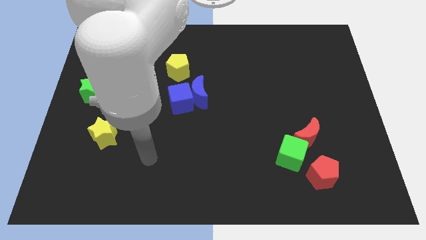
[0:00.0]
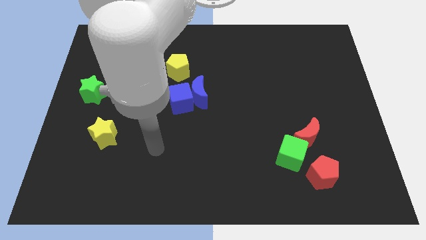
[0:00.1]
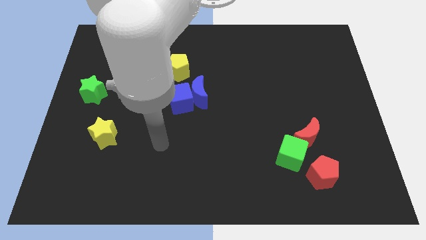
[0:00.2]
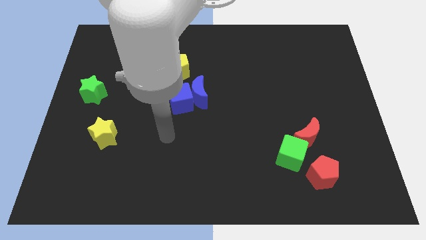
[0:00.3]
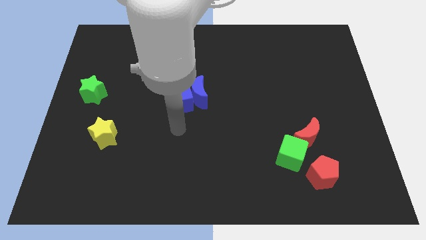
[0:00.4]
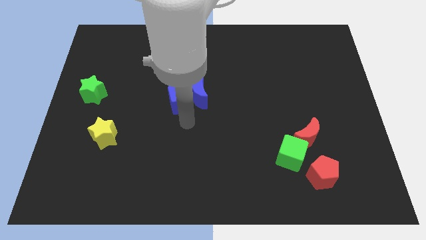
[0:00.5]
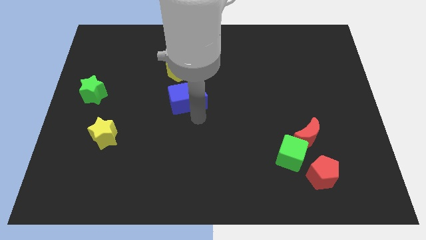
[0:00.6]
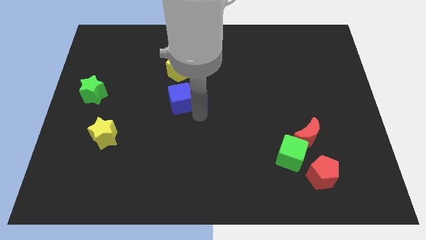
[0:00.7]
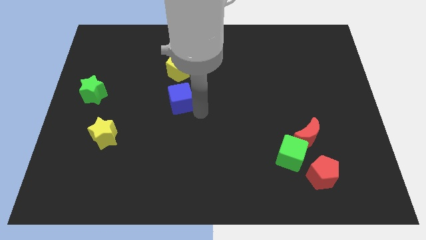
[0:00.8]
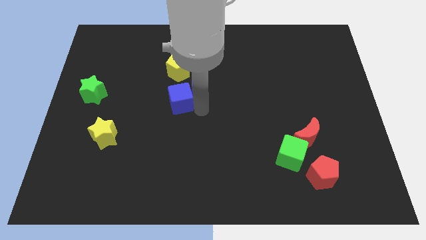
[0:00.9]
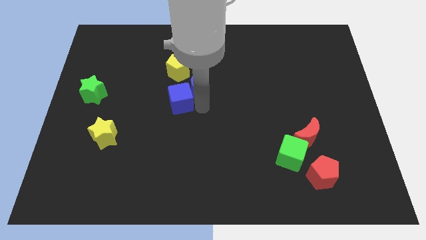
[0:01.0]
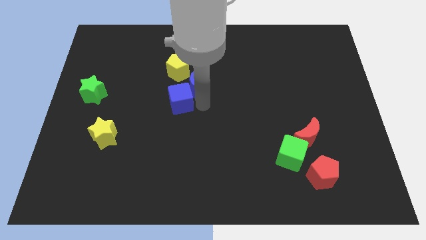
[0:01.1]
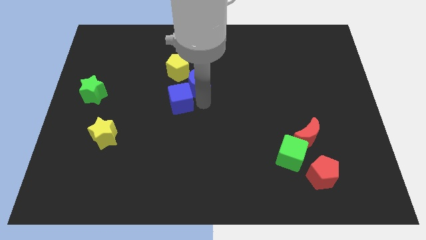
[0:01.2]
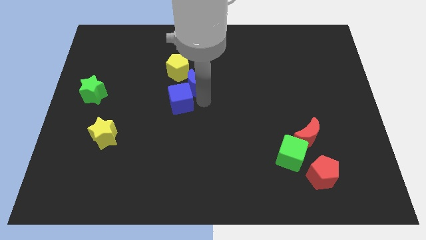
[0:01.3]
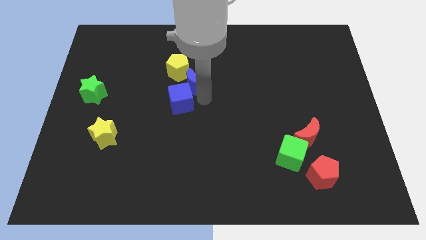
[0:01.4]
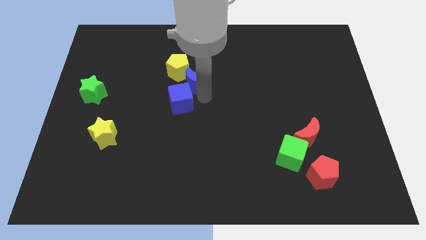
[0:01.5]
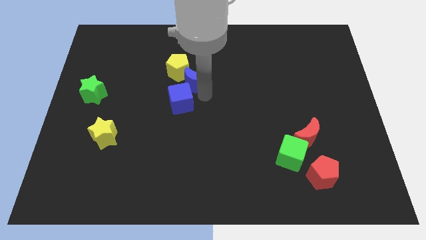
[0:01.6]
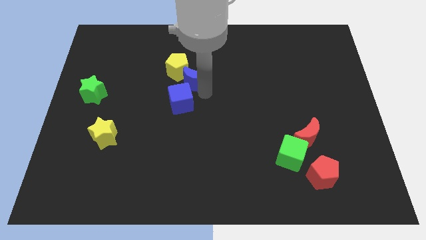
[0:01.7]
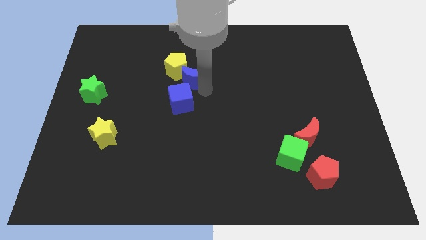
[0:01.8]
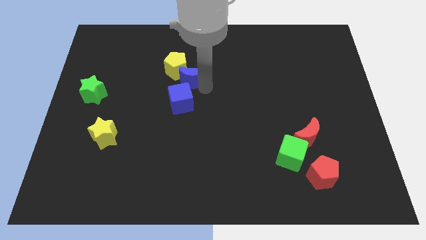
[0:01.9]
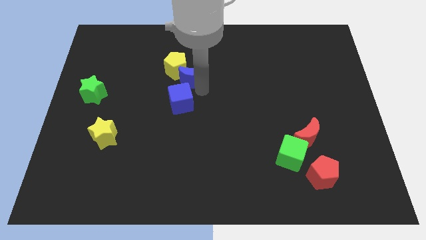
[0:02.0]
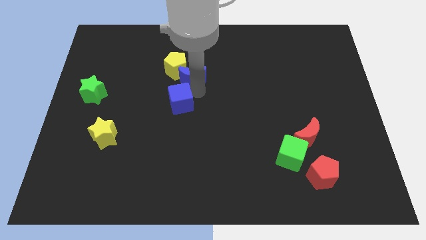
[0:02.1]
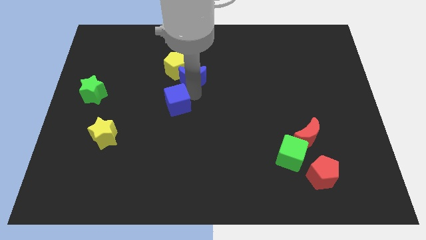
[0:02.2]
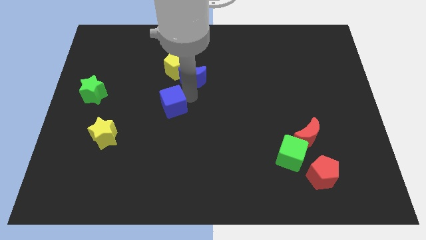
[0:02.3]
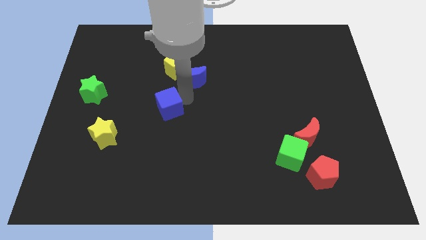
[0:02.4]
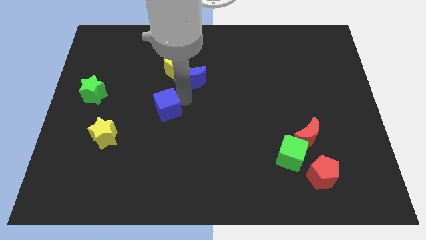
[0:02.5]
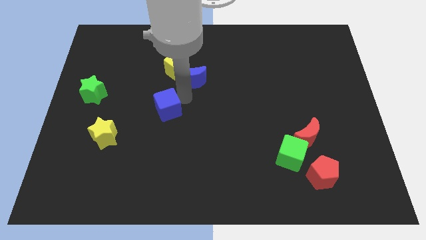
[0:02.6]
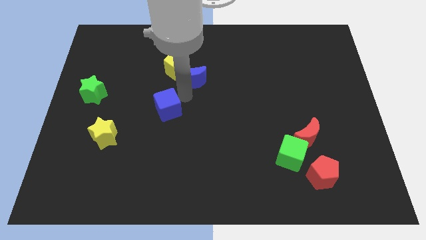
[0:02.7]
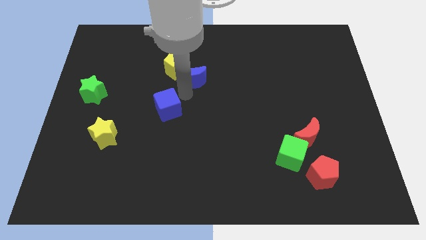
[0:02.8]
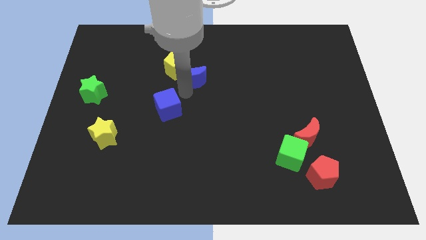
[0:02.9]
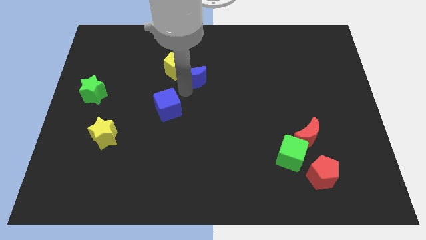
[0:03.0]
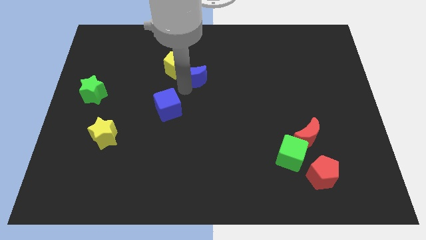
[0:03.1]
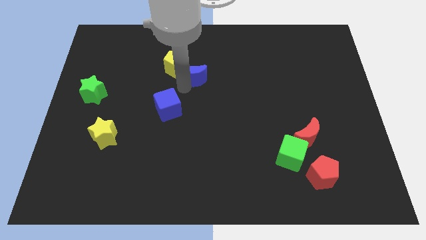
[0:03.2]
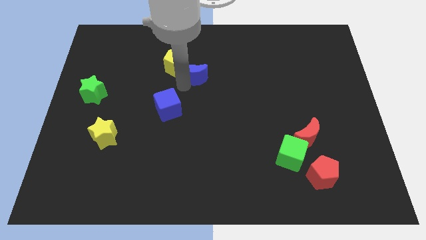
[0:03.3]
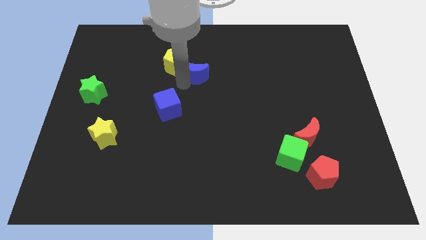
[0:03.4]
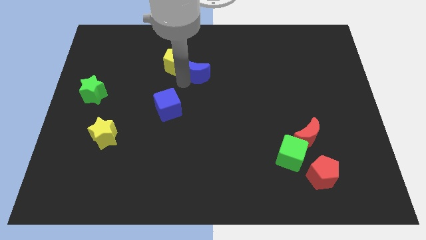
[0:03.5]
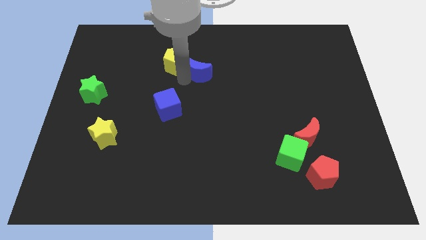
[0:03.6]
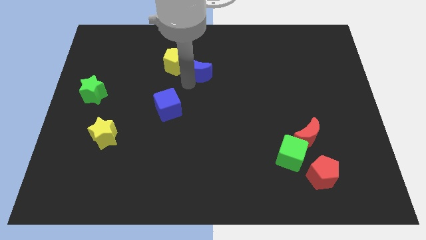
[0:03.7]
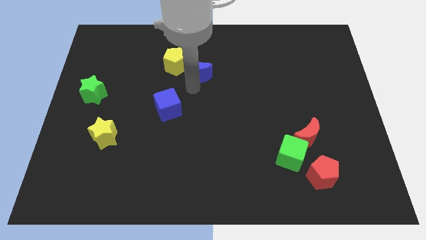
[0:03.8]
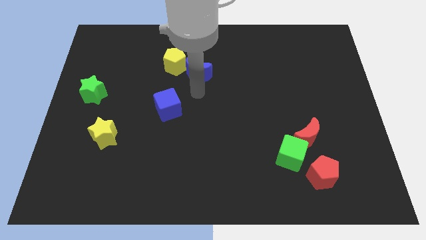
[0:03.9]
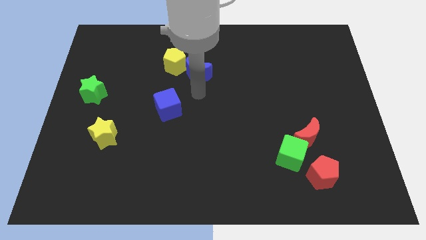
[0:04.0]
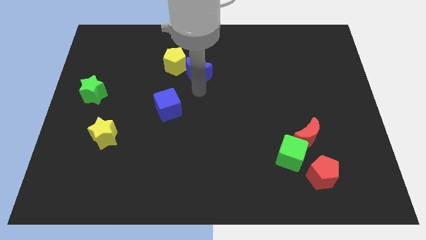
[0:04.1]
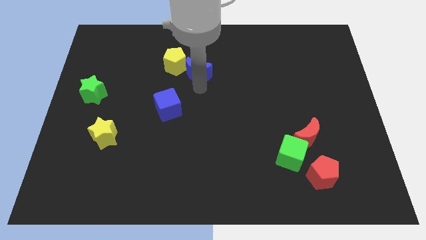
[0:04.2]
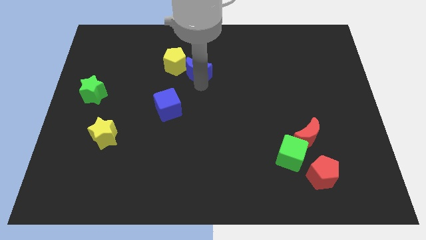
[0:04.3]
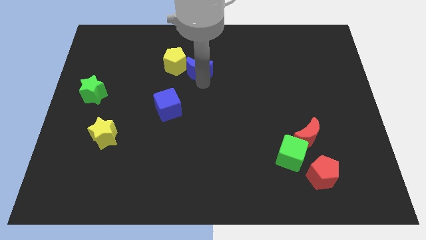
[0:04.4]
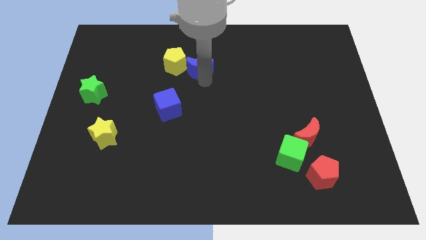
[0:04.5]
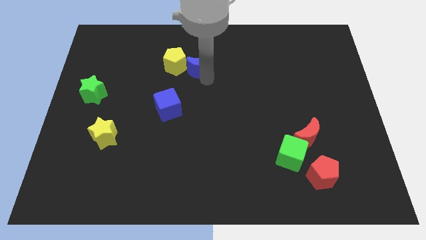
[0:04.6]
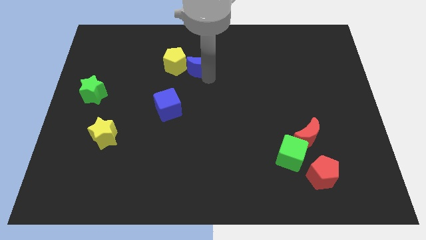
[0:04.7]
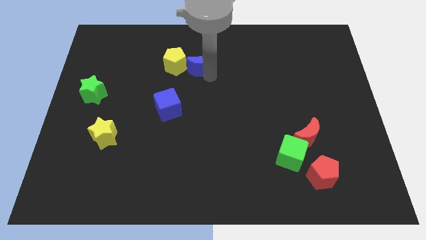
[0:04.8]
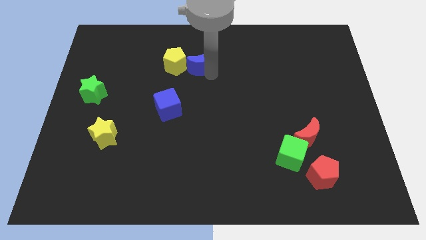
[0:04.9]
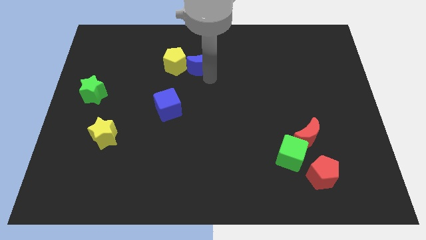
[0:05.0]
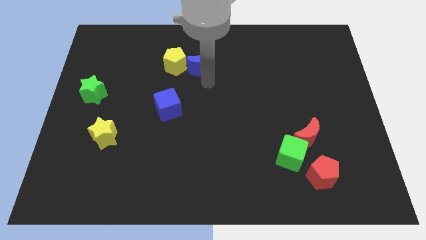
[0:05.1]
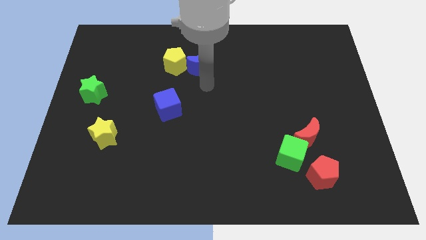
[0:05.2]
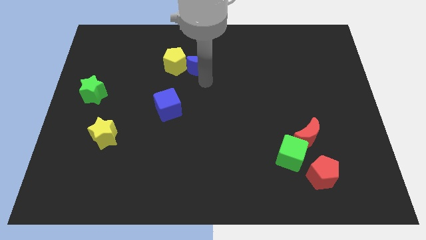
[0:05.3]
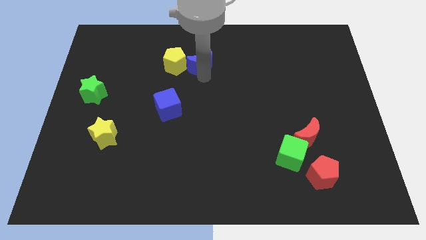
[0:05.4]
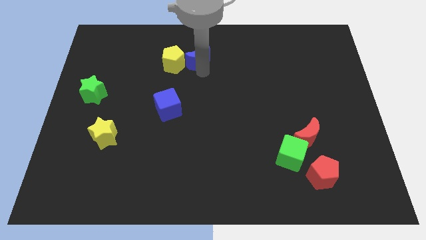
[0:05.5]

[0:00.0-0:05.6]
push the blue moon diagonally up and to the right of the yellow pentagon

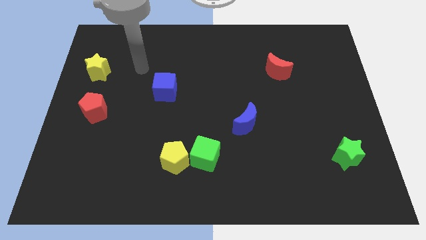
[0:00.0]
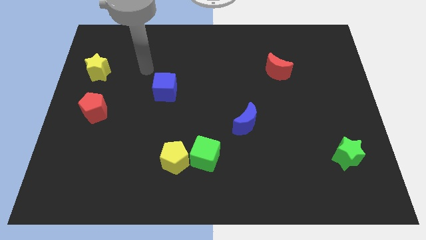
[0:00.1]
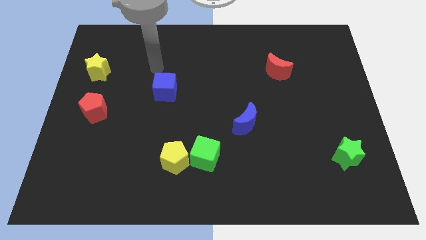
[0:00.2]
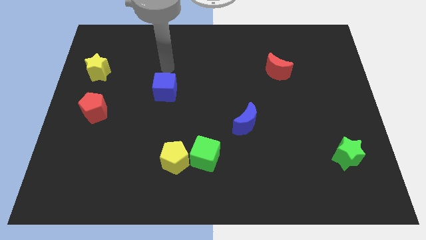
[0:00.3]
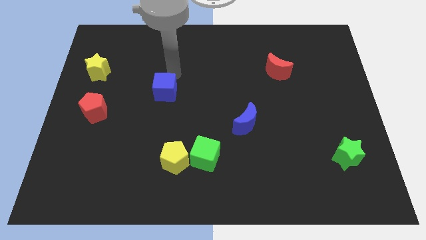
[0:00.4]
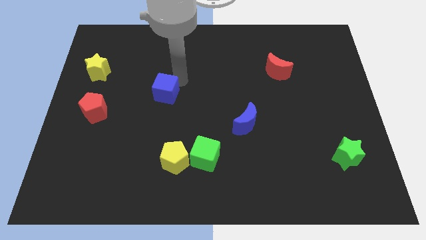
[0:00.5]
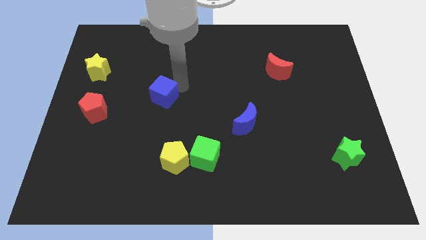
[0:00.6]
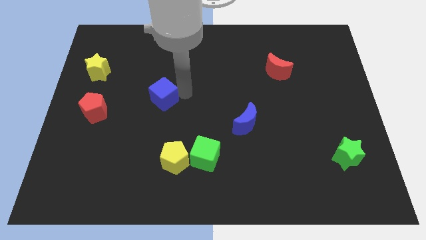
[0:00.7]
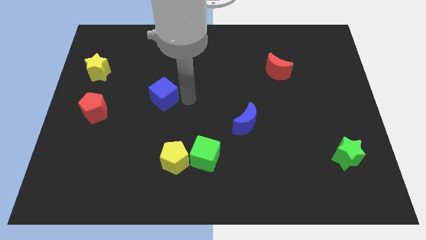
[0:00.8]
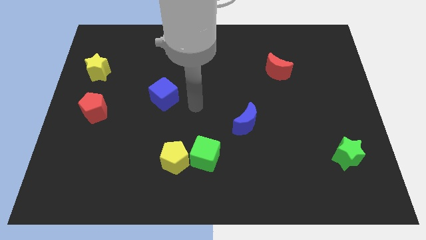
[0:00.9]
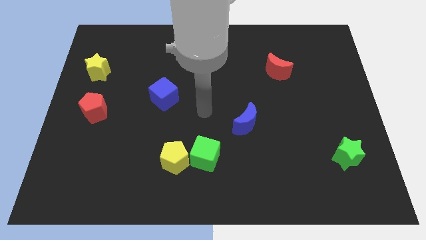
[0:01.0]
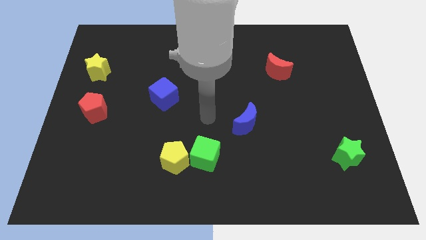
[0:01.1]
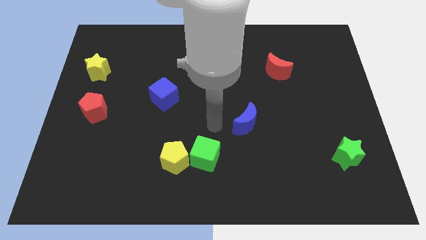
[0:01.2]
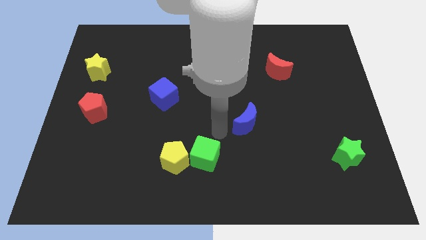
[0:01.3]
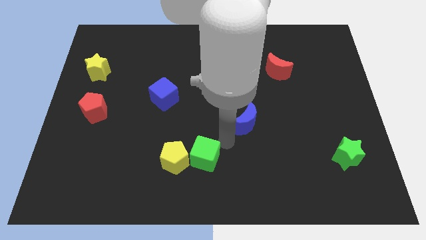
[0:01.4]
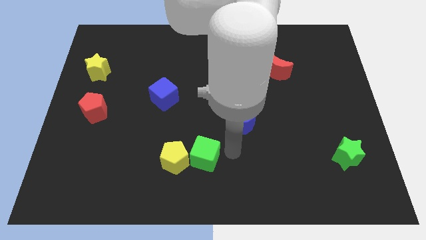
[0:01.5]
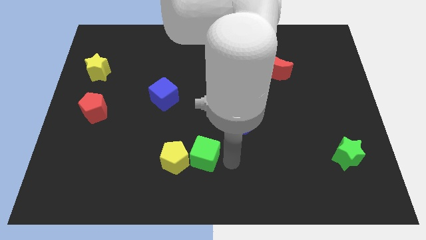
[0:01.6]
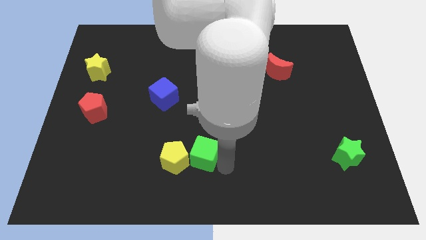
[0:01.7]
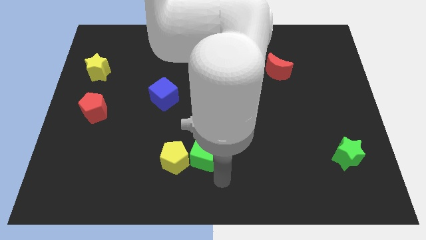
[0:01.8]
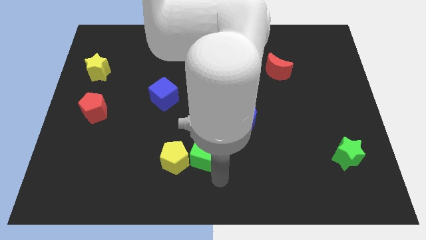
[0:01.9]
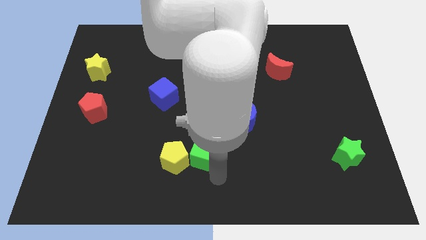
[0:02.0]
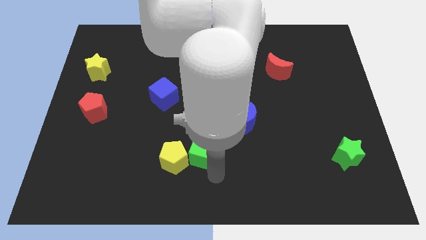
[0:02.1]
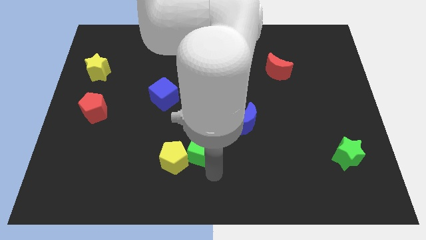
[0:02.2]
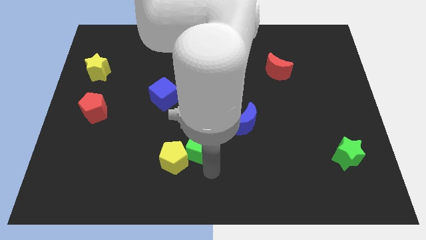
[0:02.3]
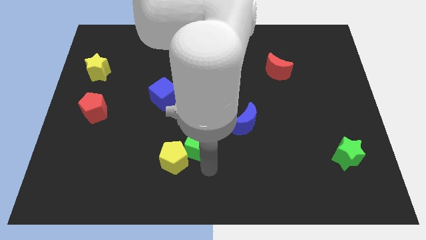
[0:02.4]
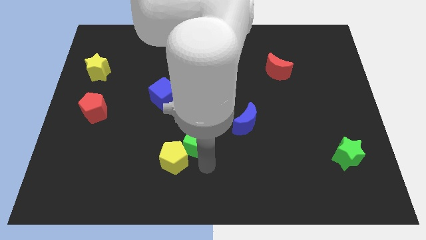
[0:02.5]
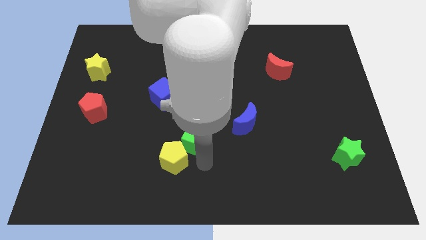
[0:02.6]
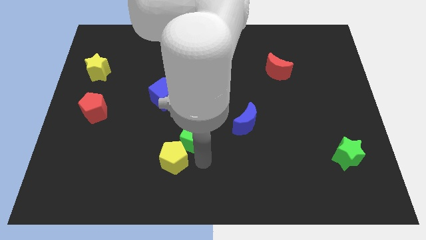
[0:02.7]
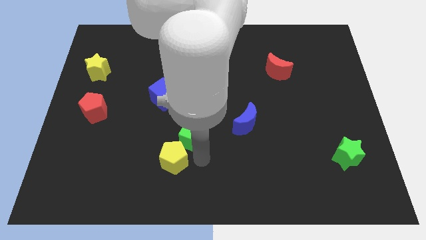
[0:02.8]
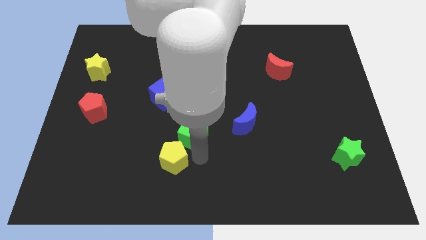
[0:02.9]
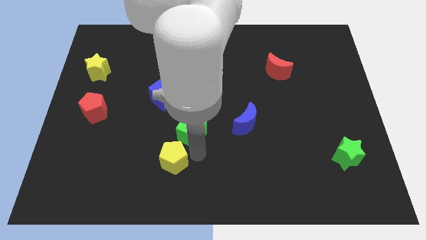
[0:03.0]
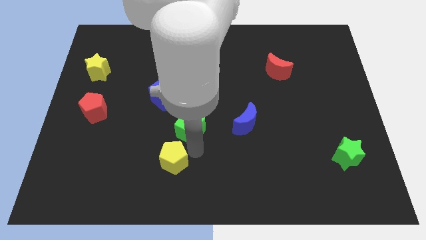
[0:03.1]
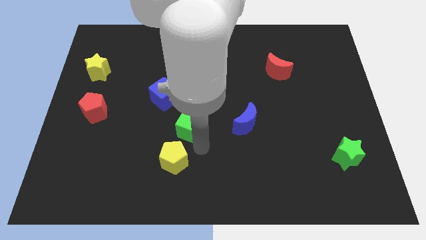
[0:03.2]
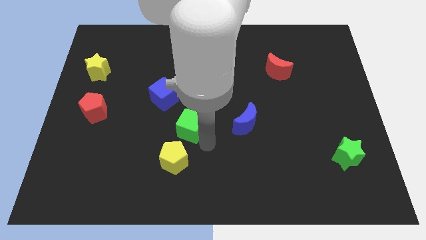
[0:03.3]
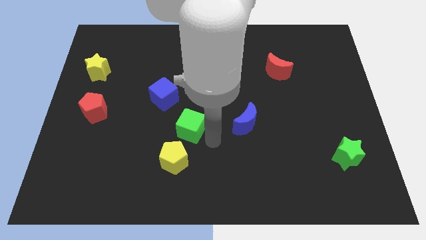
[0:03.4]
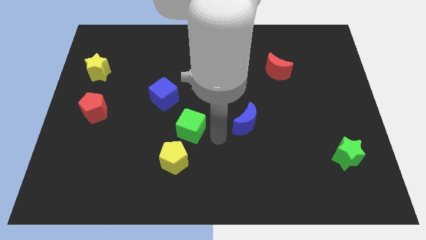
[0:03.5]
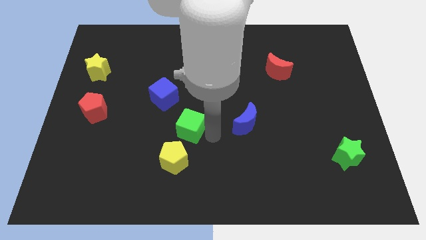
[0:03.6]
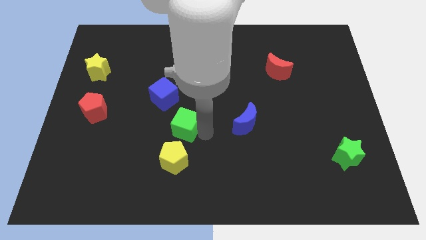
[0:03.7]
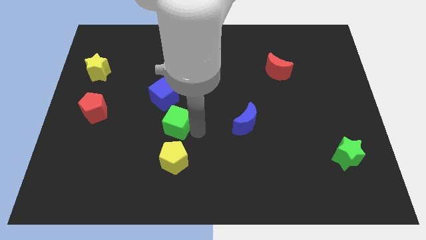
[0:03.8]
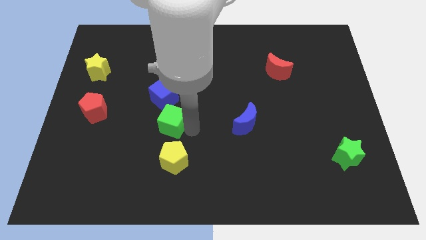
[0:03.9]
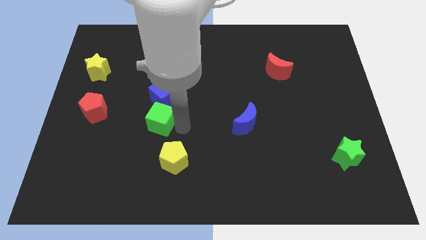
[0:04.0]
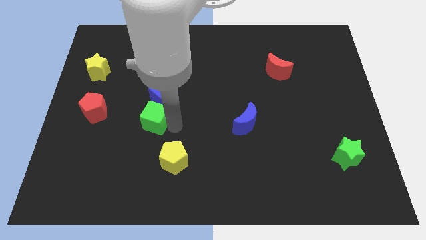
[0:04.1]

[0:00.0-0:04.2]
slide the green cube just right of the red pentagon
